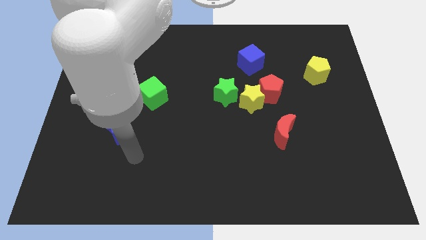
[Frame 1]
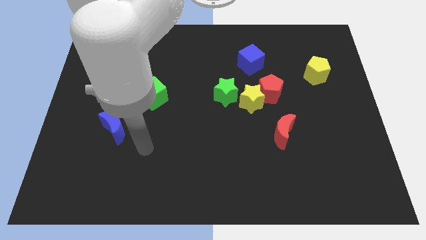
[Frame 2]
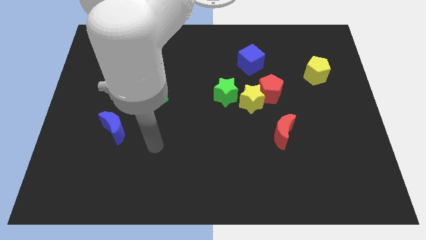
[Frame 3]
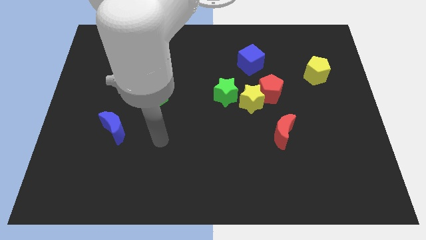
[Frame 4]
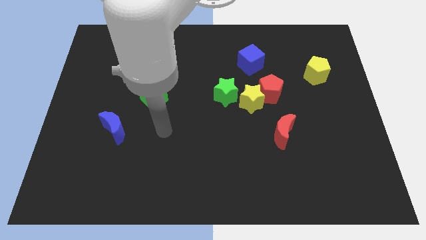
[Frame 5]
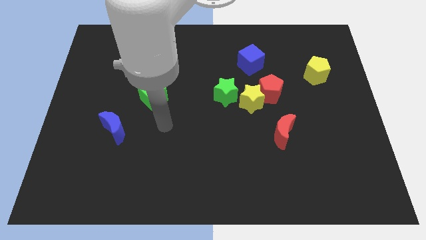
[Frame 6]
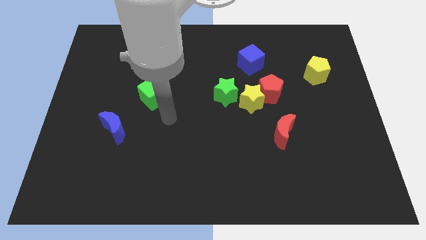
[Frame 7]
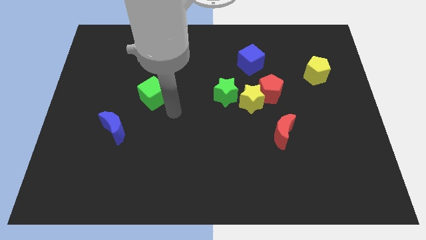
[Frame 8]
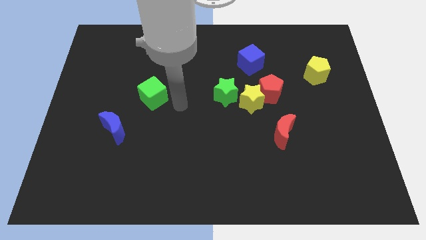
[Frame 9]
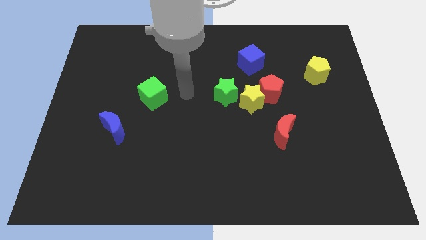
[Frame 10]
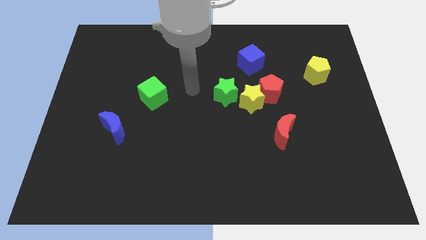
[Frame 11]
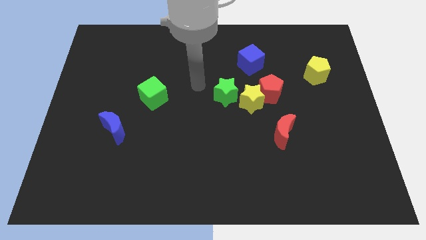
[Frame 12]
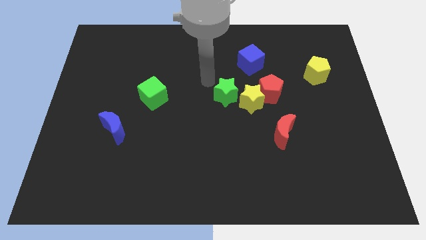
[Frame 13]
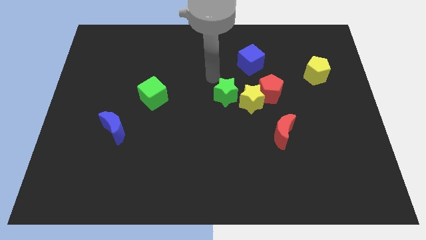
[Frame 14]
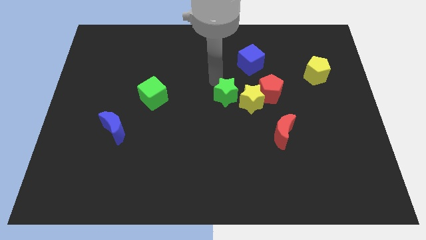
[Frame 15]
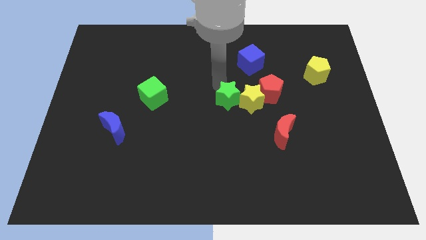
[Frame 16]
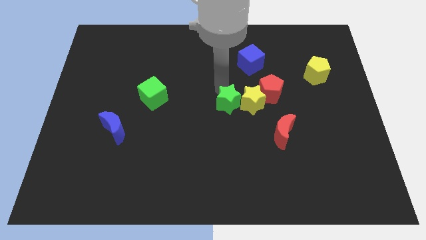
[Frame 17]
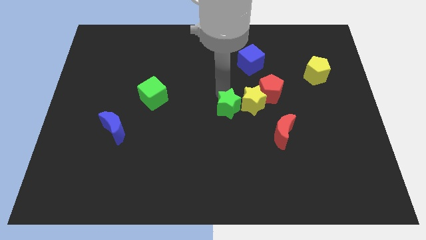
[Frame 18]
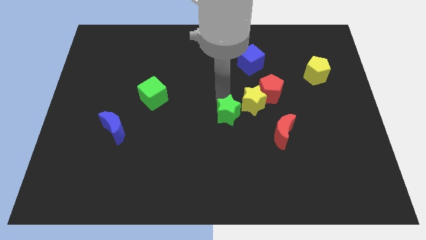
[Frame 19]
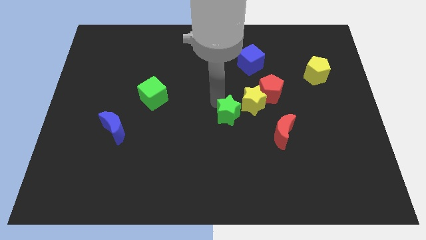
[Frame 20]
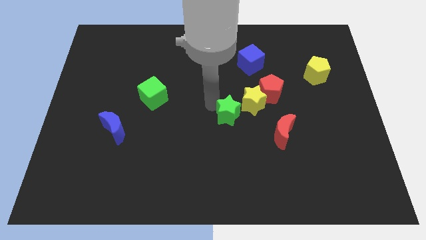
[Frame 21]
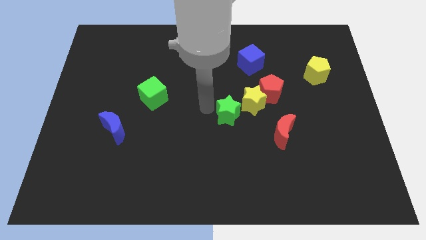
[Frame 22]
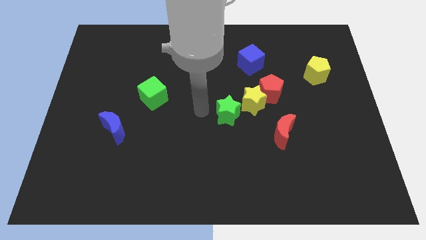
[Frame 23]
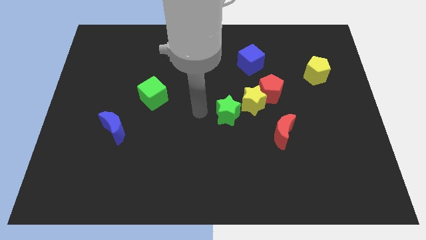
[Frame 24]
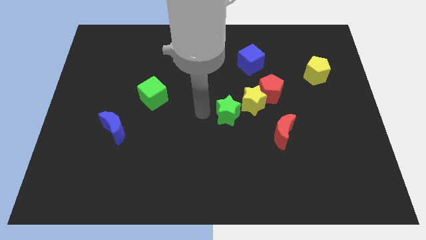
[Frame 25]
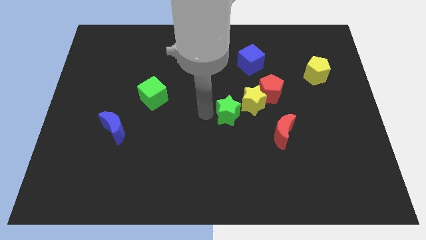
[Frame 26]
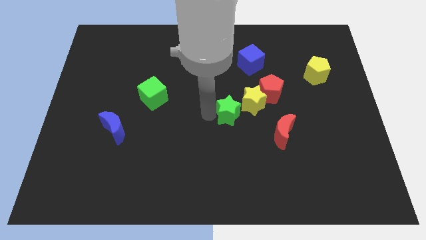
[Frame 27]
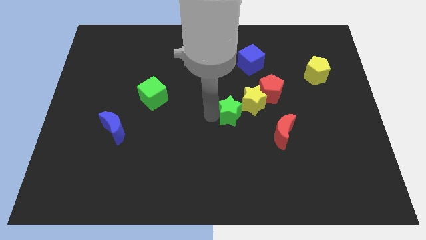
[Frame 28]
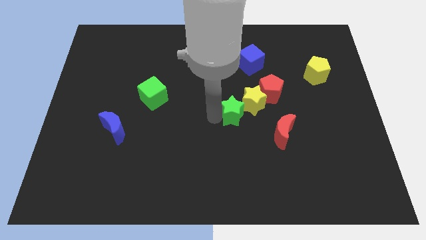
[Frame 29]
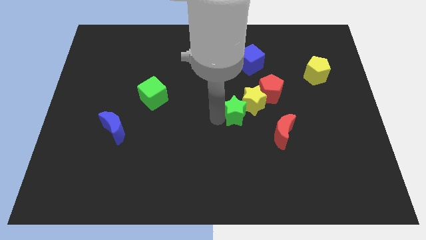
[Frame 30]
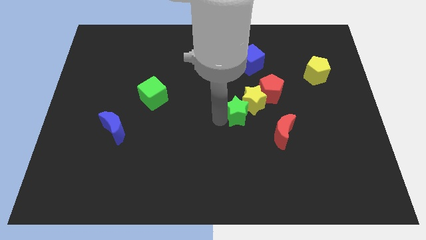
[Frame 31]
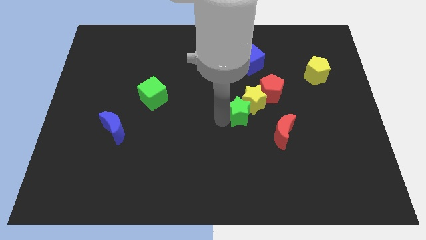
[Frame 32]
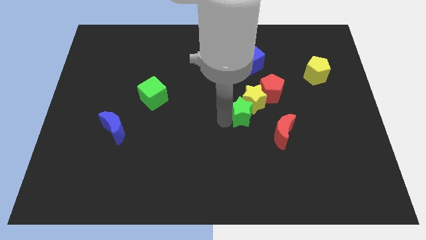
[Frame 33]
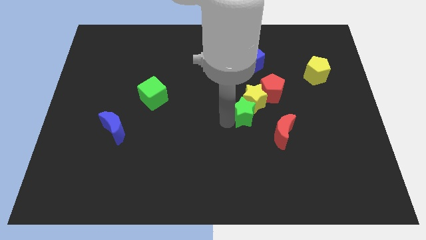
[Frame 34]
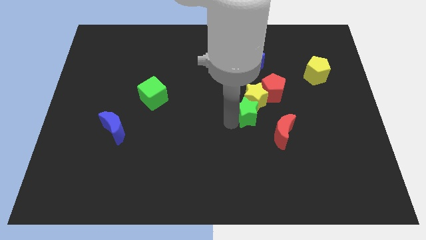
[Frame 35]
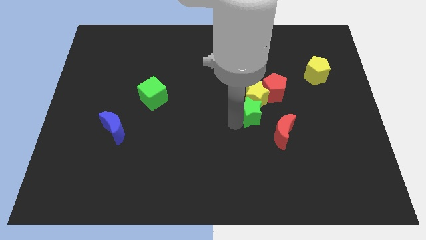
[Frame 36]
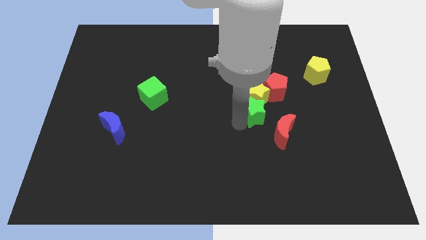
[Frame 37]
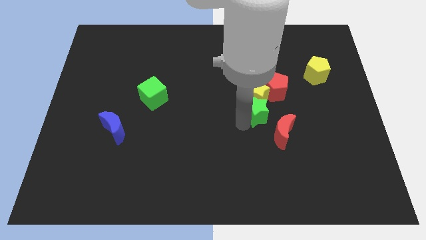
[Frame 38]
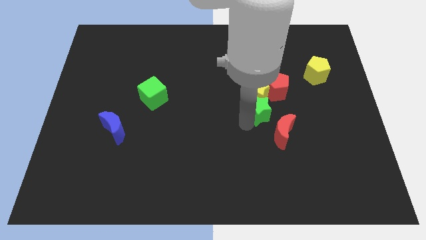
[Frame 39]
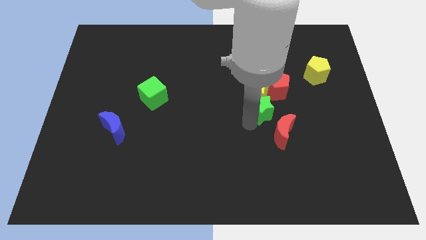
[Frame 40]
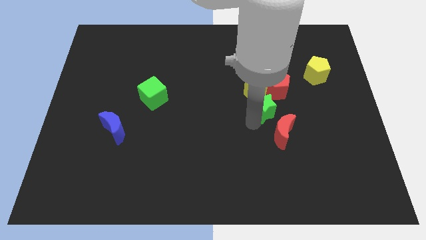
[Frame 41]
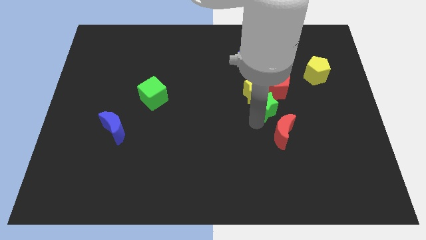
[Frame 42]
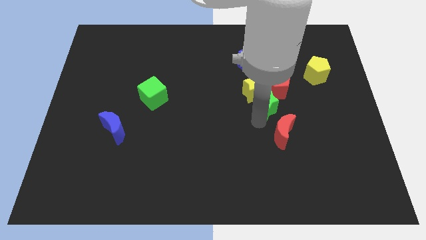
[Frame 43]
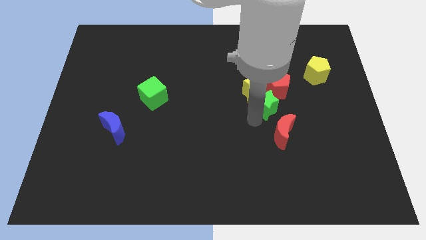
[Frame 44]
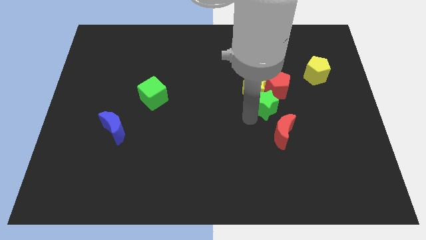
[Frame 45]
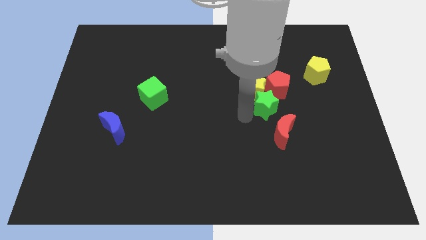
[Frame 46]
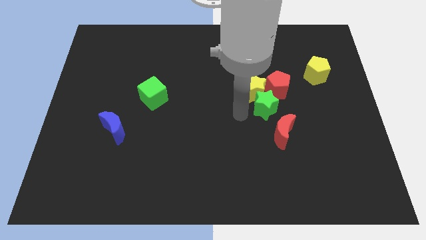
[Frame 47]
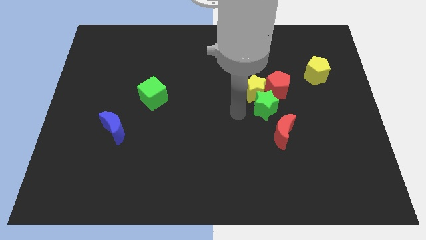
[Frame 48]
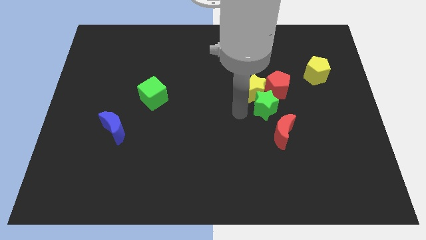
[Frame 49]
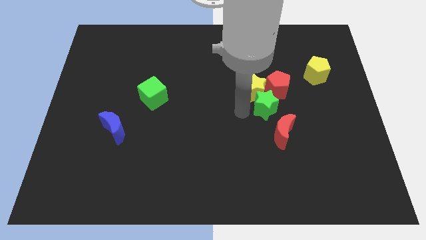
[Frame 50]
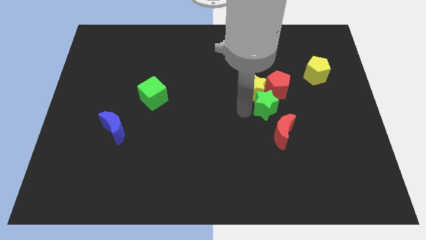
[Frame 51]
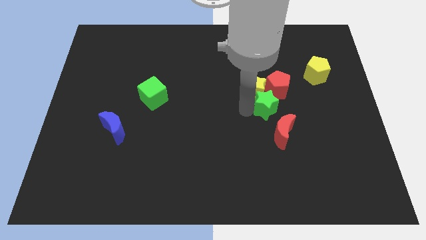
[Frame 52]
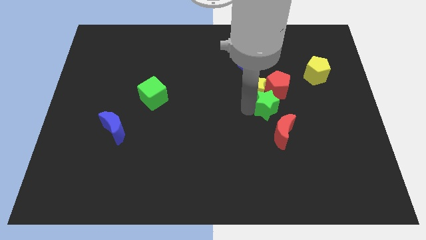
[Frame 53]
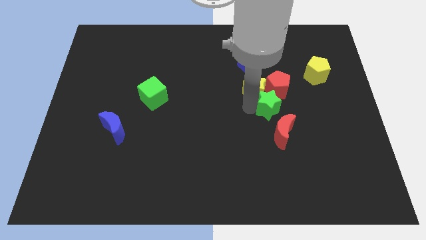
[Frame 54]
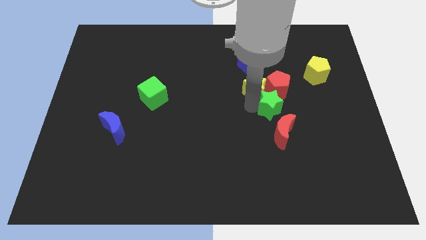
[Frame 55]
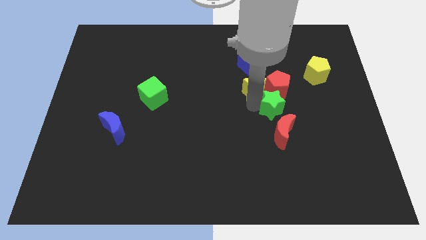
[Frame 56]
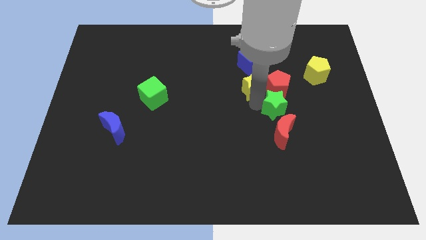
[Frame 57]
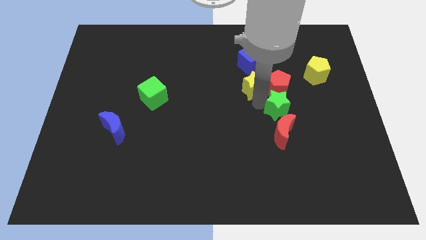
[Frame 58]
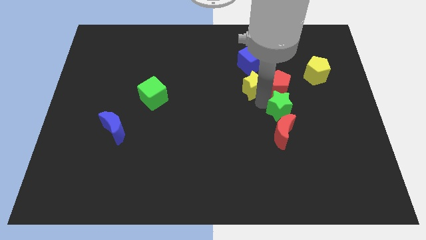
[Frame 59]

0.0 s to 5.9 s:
push the green star to the top right of the red moon

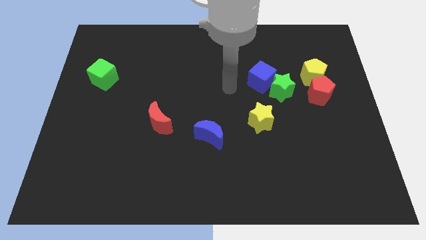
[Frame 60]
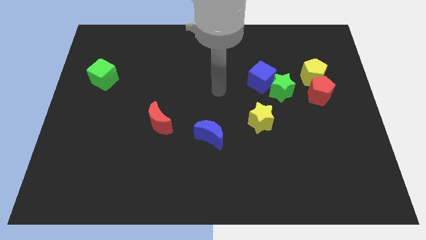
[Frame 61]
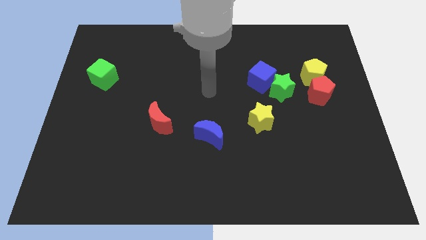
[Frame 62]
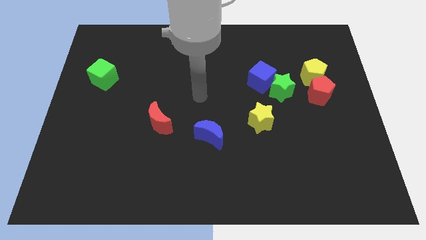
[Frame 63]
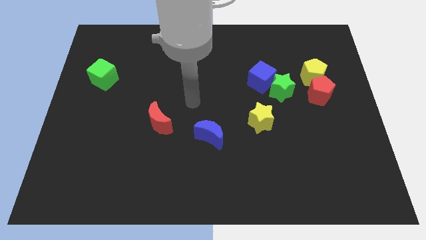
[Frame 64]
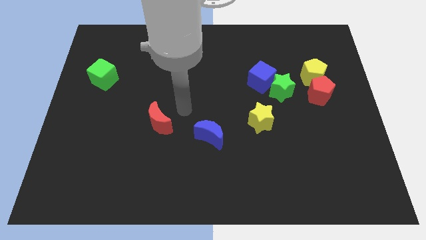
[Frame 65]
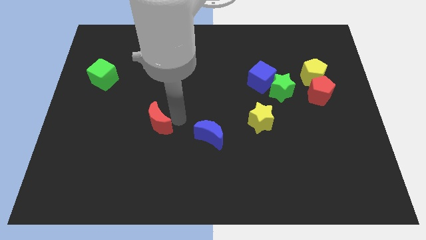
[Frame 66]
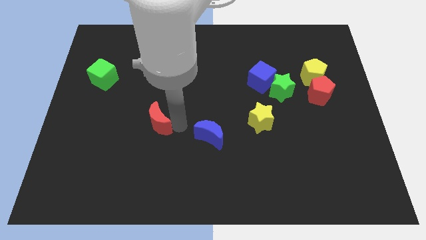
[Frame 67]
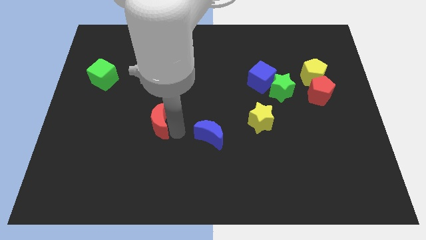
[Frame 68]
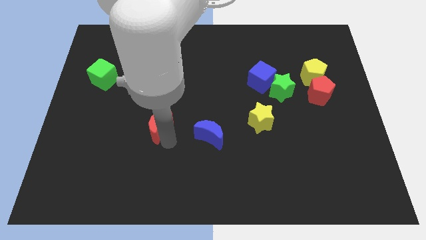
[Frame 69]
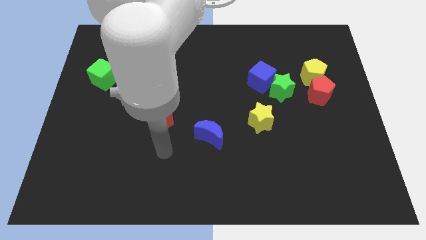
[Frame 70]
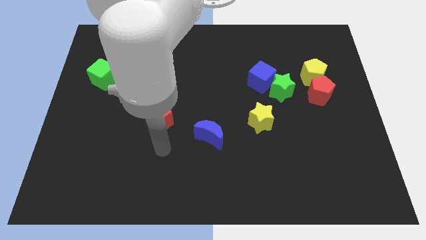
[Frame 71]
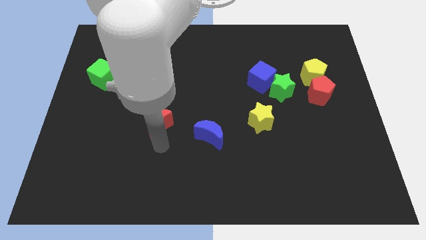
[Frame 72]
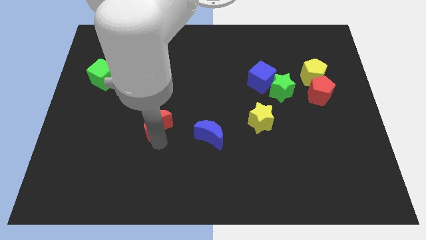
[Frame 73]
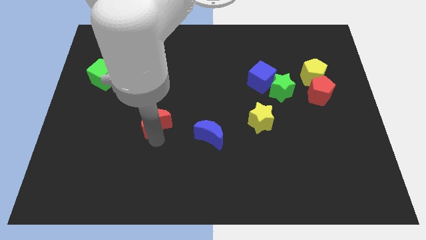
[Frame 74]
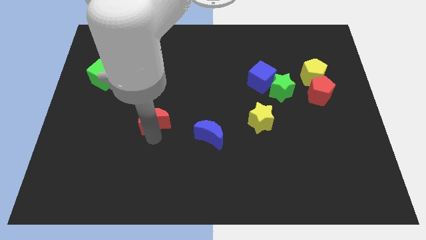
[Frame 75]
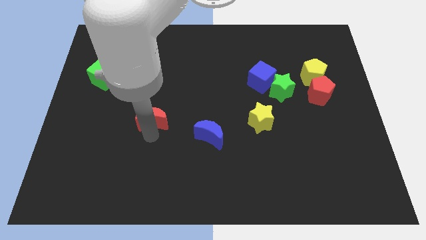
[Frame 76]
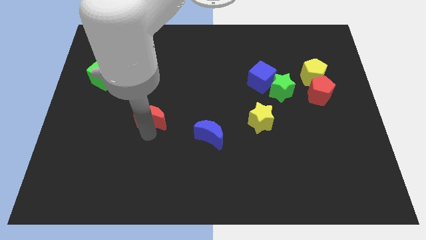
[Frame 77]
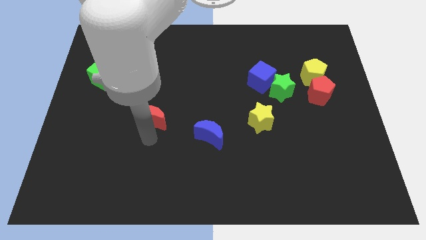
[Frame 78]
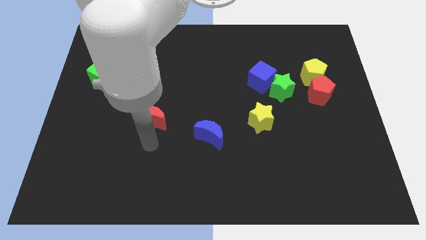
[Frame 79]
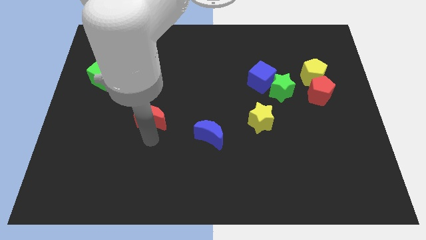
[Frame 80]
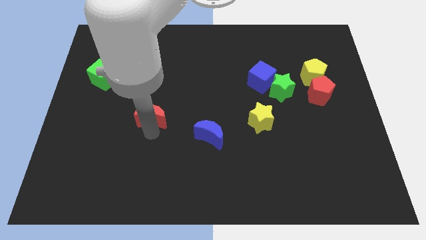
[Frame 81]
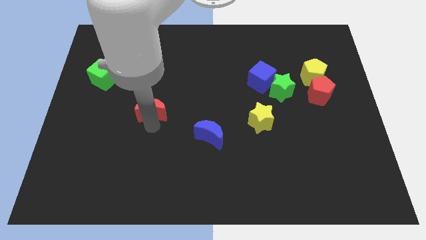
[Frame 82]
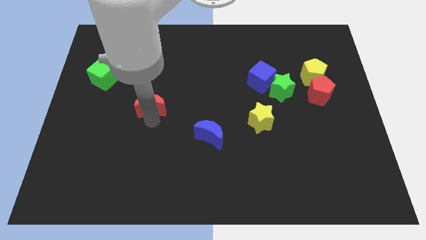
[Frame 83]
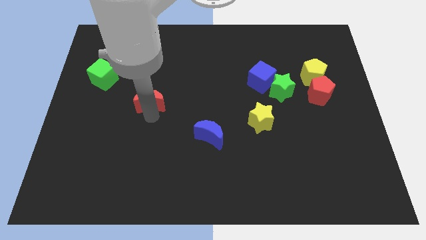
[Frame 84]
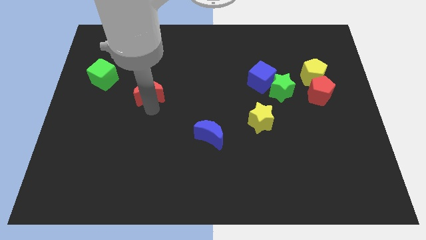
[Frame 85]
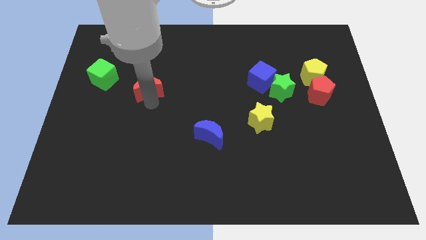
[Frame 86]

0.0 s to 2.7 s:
push the red moon right of the green cube
